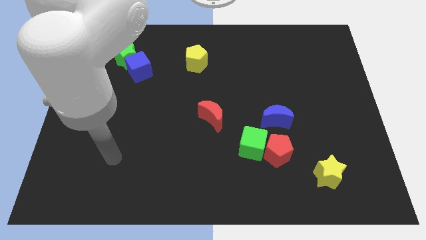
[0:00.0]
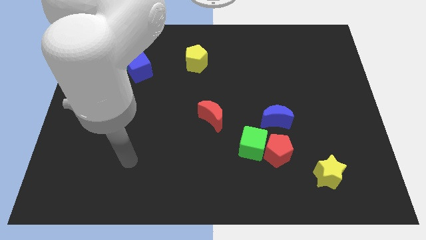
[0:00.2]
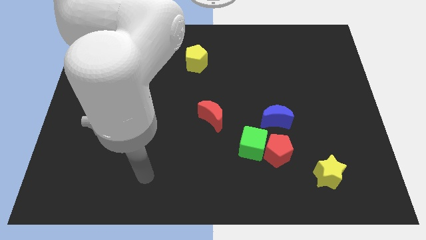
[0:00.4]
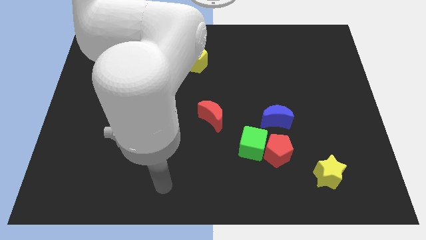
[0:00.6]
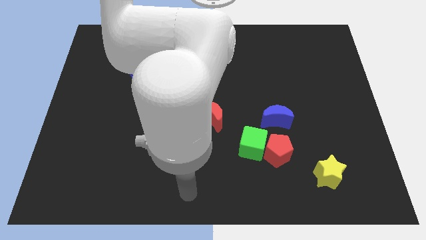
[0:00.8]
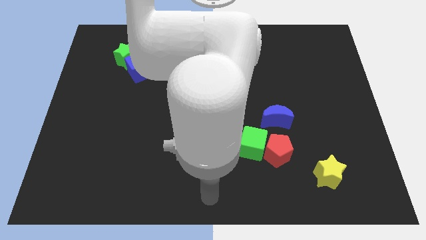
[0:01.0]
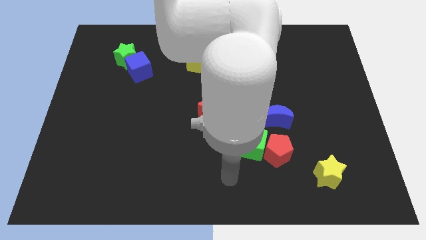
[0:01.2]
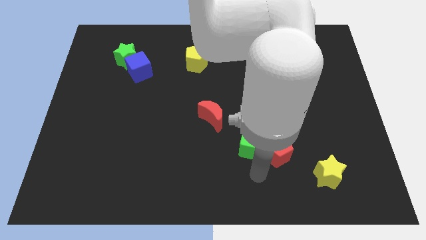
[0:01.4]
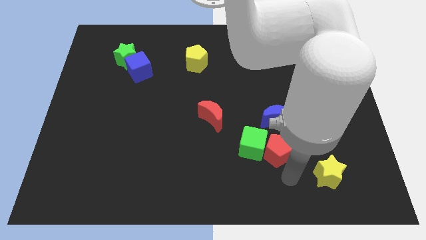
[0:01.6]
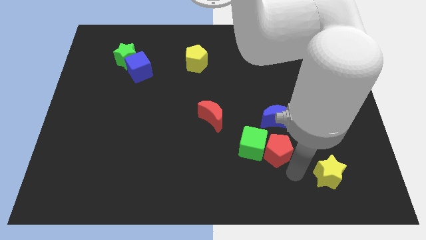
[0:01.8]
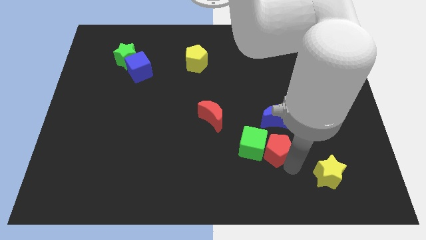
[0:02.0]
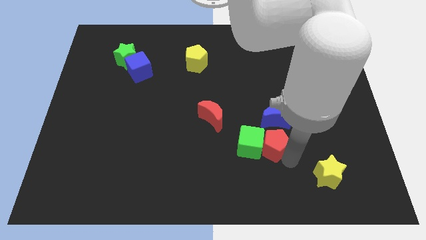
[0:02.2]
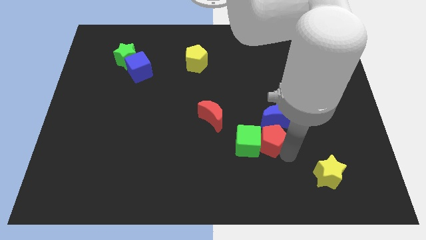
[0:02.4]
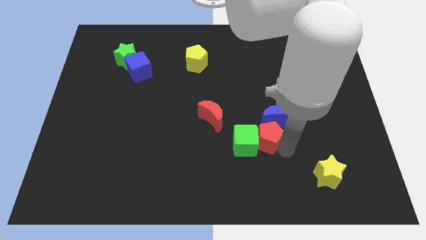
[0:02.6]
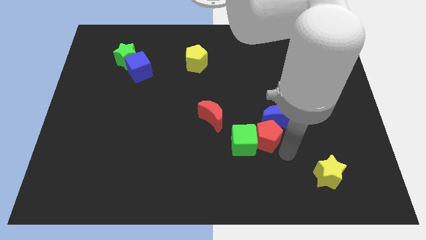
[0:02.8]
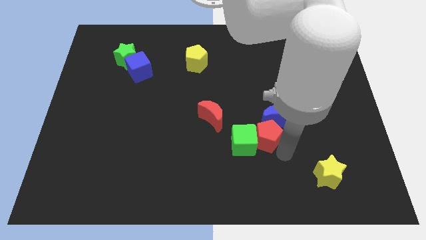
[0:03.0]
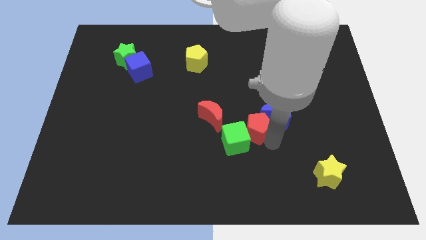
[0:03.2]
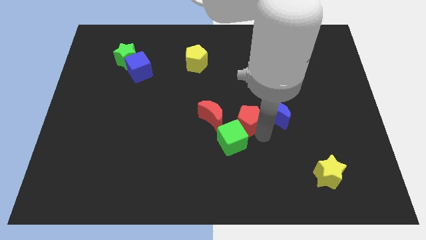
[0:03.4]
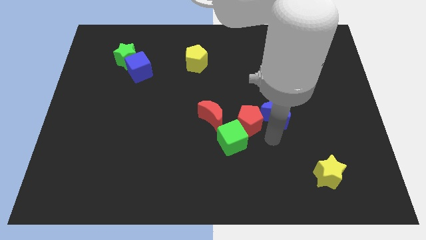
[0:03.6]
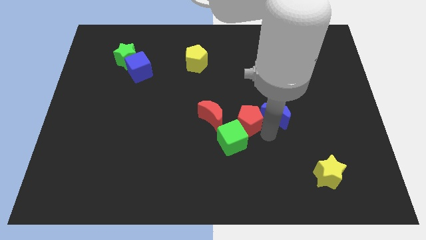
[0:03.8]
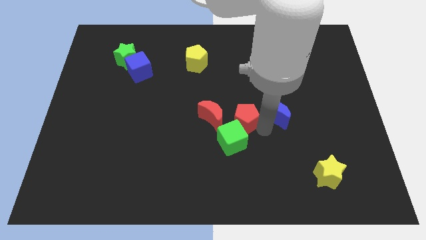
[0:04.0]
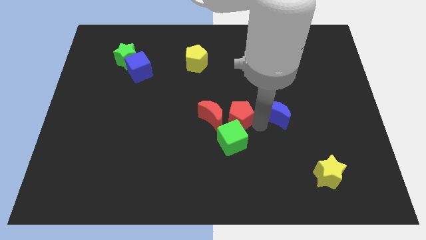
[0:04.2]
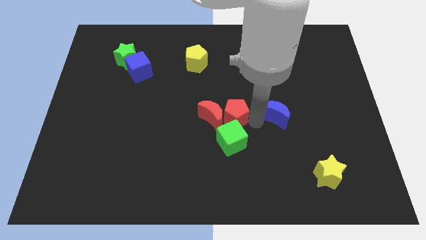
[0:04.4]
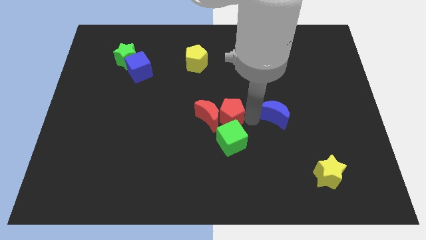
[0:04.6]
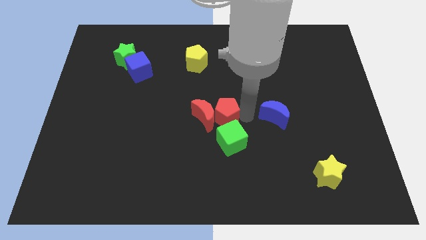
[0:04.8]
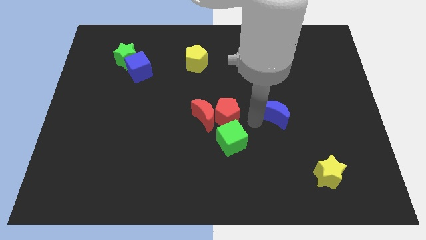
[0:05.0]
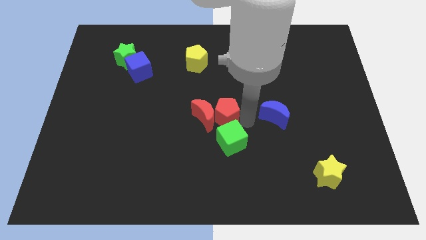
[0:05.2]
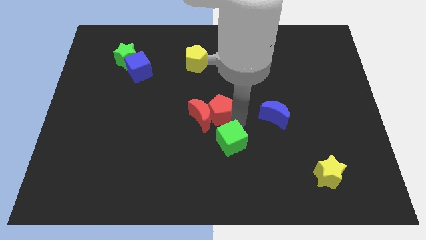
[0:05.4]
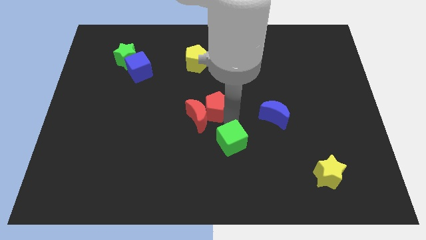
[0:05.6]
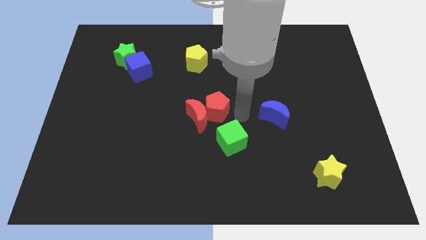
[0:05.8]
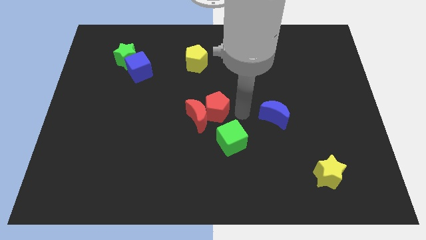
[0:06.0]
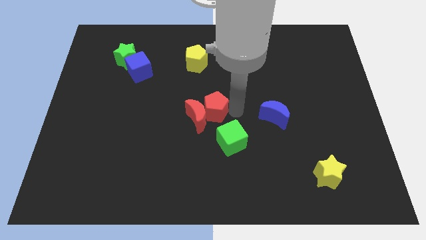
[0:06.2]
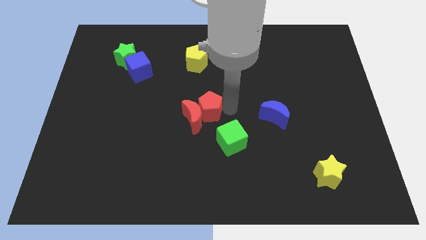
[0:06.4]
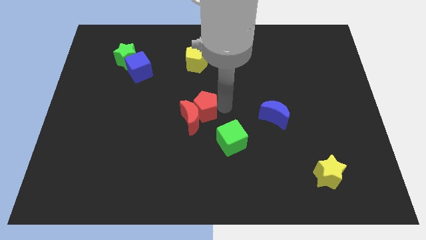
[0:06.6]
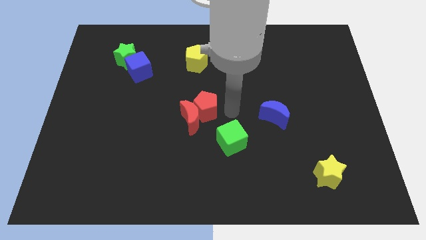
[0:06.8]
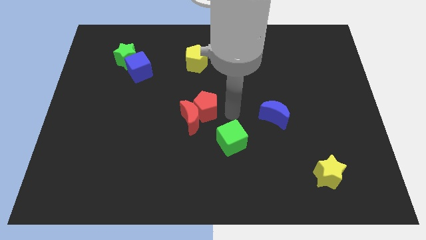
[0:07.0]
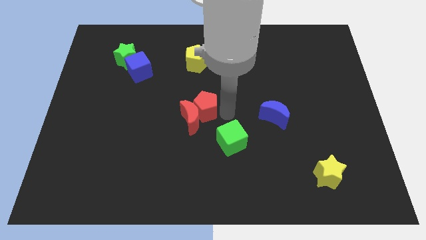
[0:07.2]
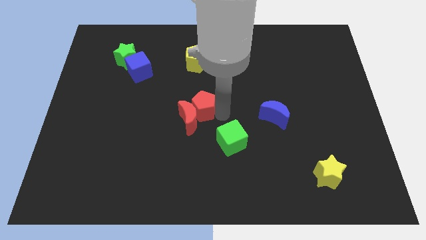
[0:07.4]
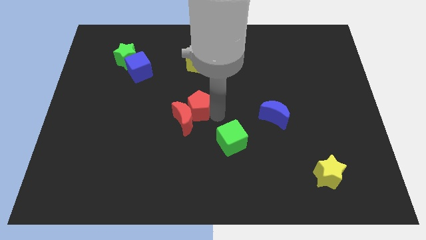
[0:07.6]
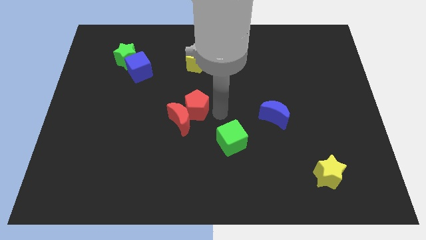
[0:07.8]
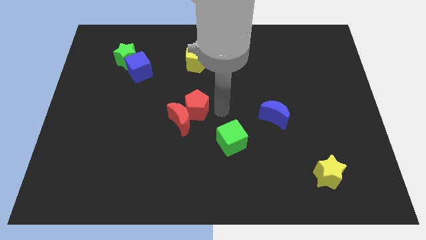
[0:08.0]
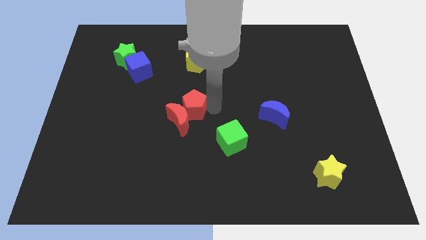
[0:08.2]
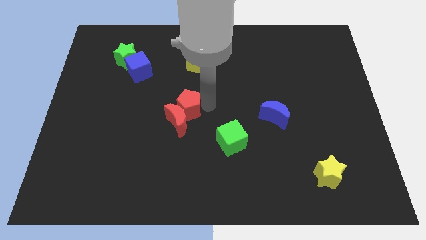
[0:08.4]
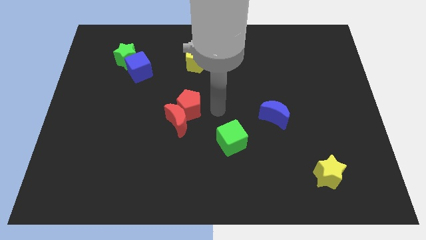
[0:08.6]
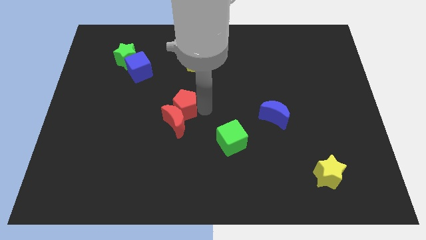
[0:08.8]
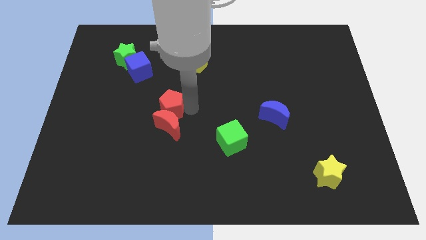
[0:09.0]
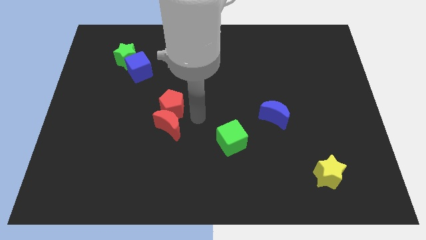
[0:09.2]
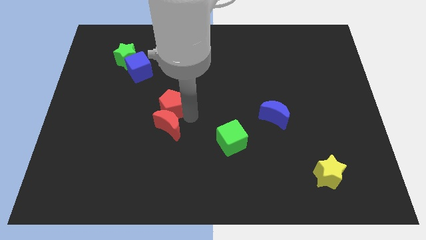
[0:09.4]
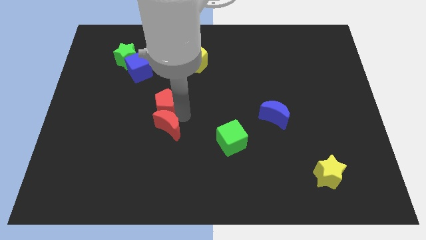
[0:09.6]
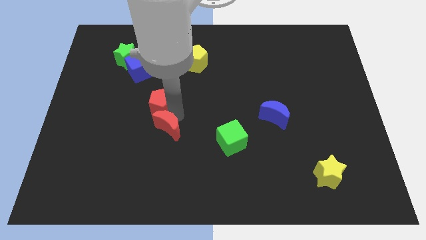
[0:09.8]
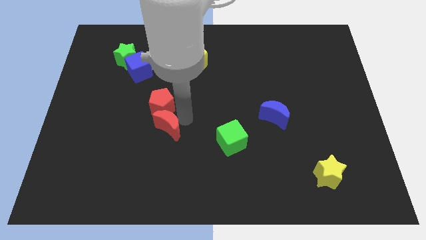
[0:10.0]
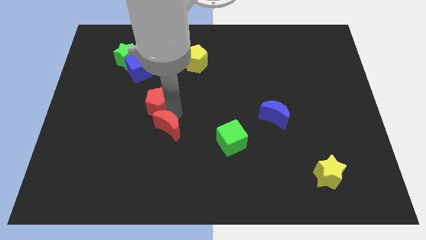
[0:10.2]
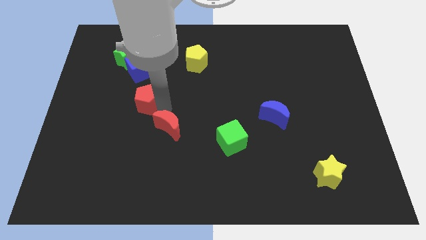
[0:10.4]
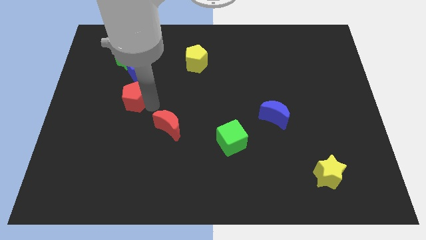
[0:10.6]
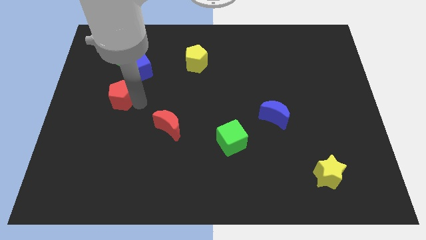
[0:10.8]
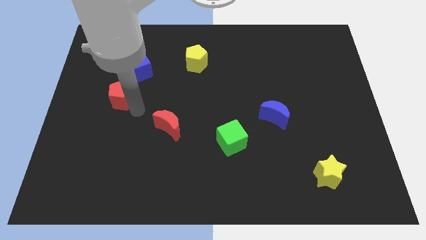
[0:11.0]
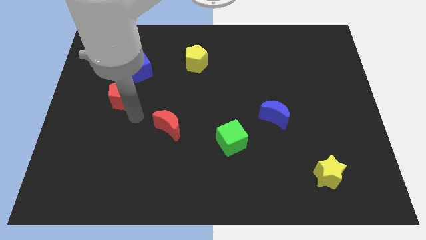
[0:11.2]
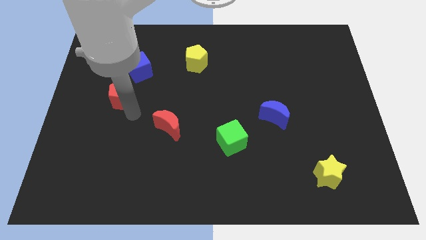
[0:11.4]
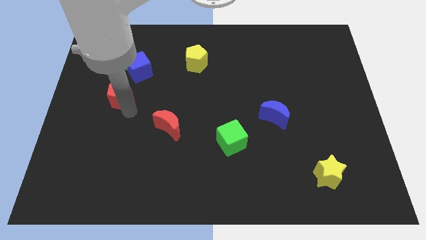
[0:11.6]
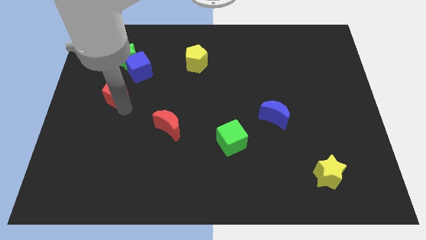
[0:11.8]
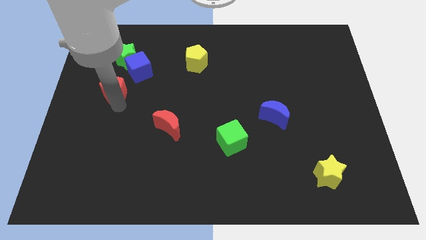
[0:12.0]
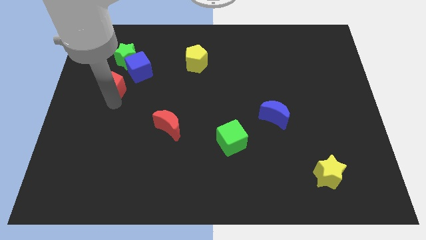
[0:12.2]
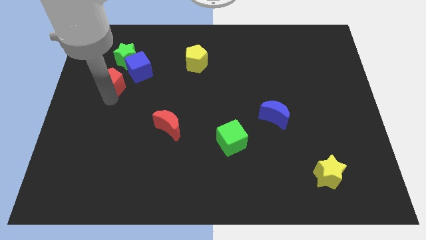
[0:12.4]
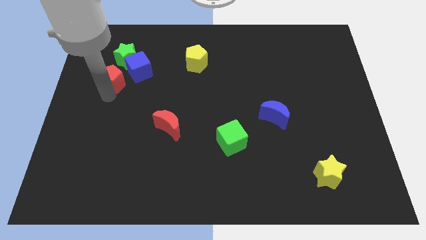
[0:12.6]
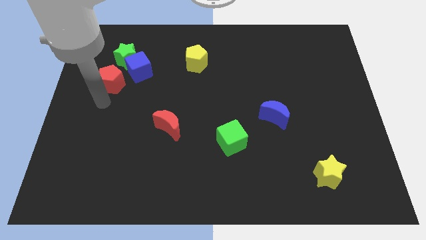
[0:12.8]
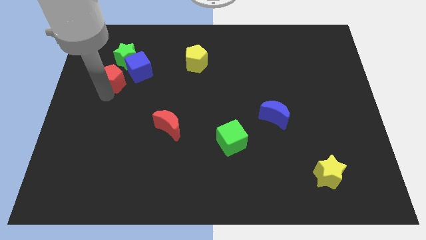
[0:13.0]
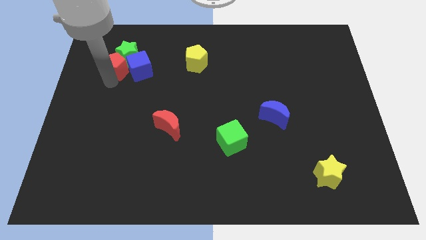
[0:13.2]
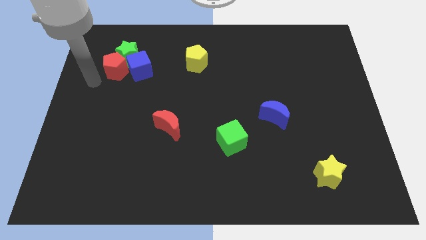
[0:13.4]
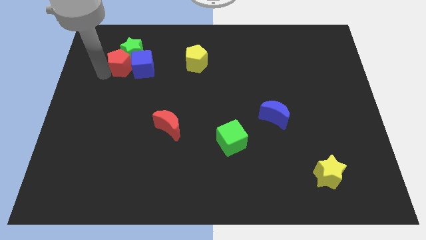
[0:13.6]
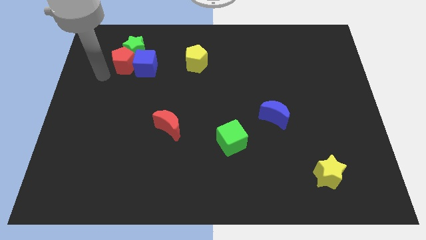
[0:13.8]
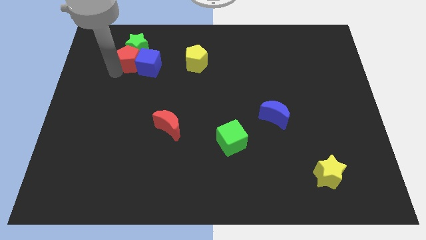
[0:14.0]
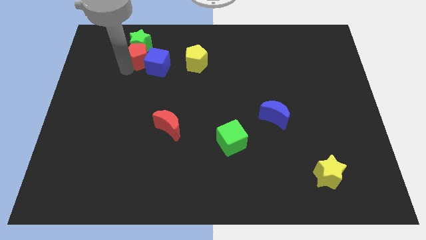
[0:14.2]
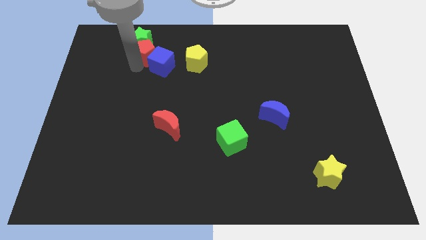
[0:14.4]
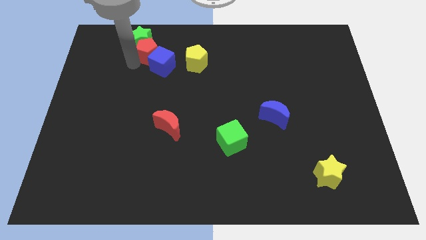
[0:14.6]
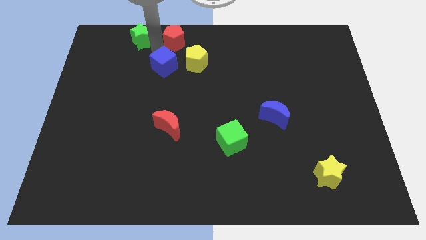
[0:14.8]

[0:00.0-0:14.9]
move the red pentagon to the top

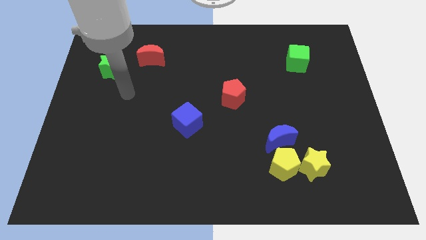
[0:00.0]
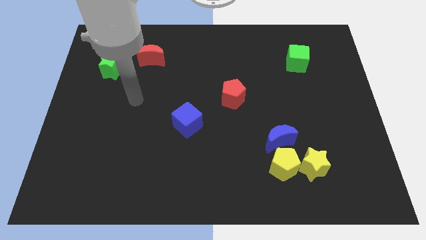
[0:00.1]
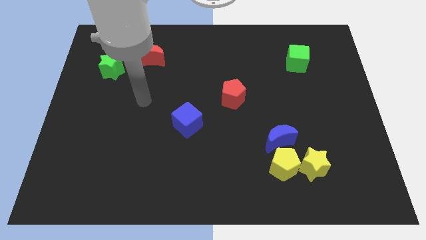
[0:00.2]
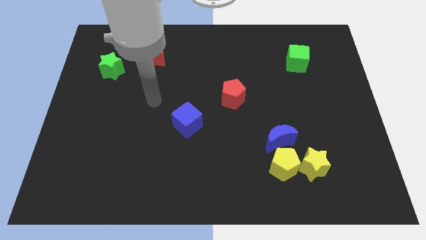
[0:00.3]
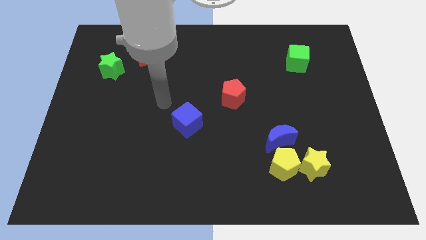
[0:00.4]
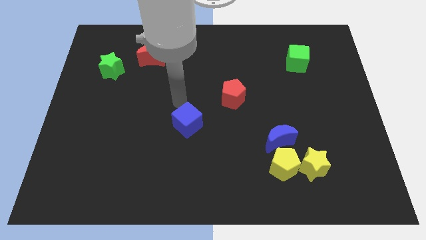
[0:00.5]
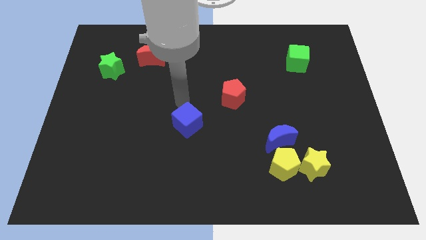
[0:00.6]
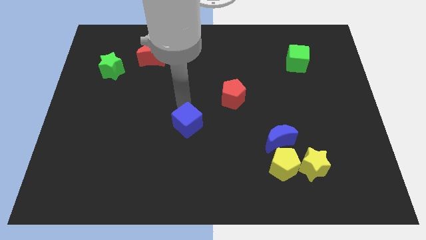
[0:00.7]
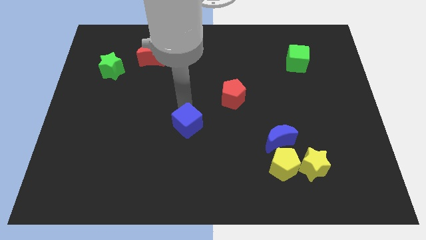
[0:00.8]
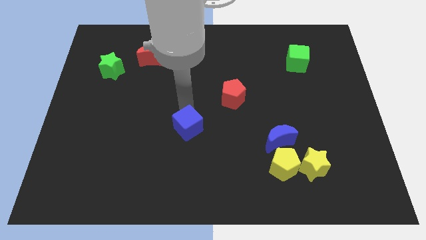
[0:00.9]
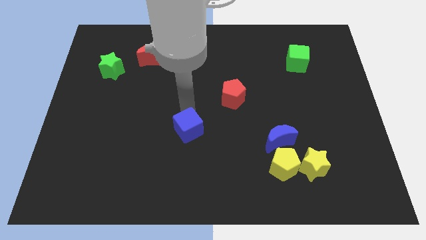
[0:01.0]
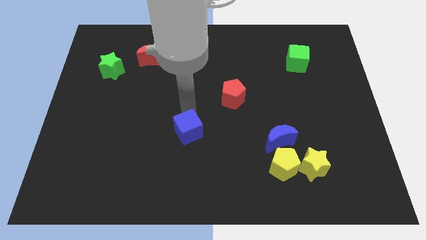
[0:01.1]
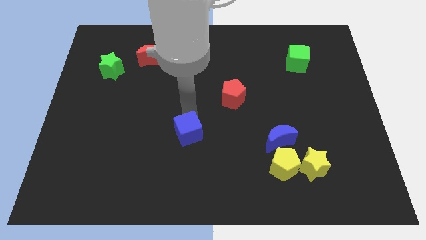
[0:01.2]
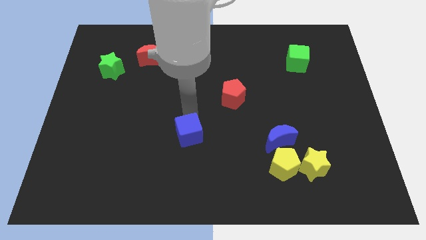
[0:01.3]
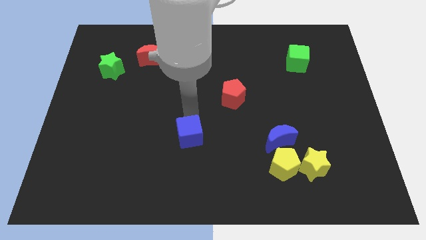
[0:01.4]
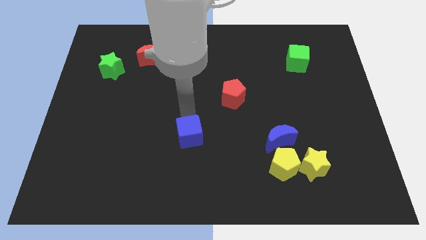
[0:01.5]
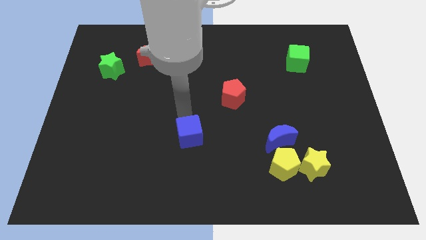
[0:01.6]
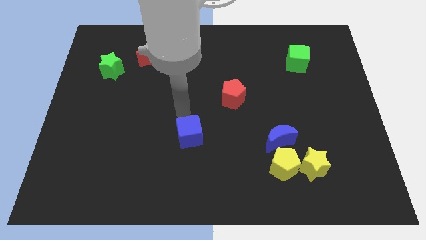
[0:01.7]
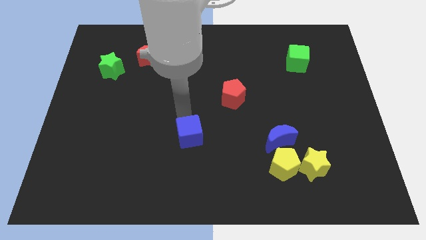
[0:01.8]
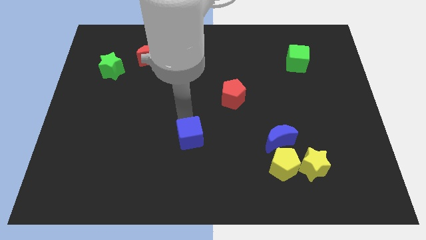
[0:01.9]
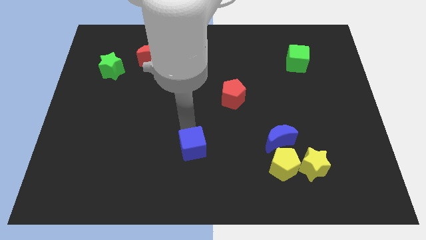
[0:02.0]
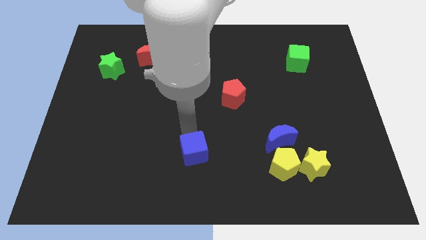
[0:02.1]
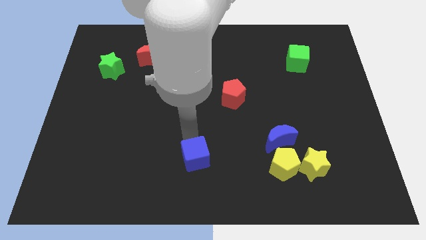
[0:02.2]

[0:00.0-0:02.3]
move the blue cube to the bottom
